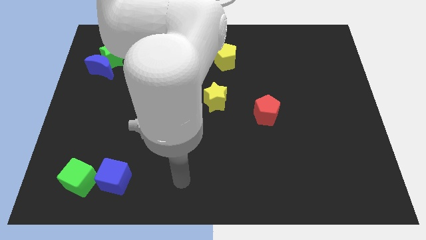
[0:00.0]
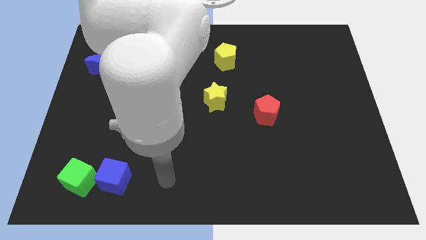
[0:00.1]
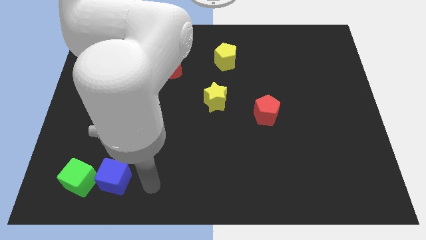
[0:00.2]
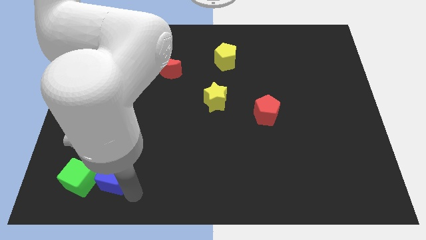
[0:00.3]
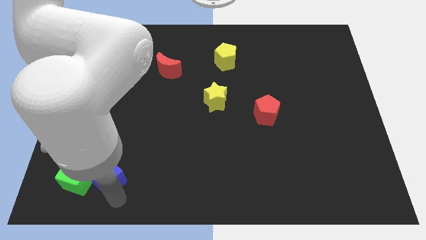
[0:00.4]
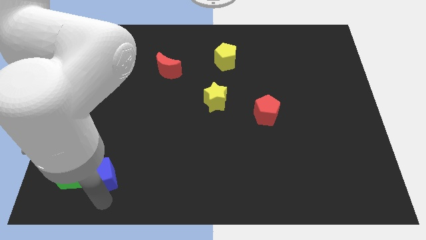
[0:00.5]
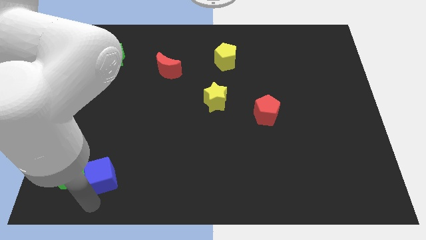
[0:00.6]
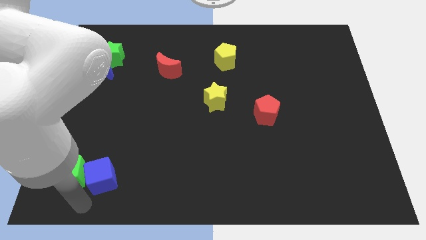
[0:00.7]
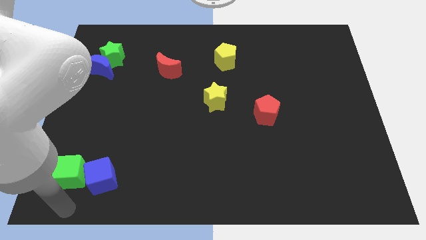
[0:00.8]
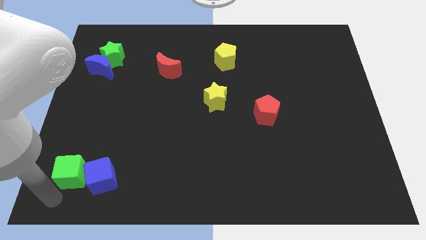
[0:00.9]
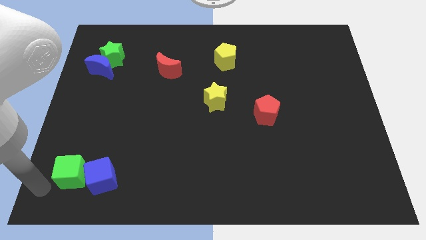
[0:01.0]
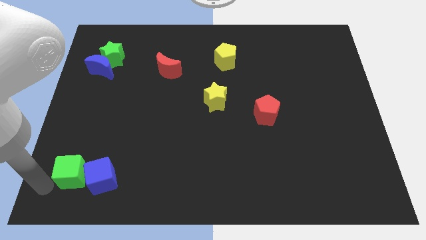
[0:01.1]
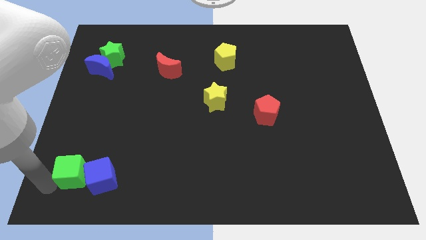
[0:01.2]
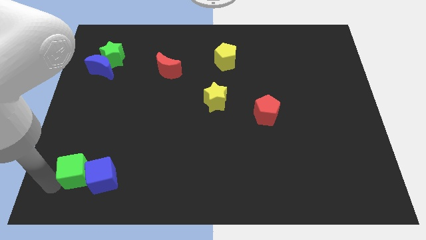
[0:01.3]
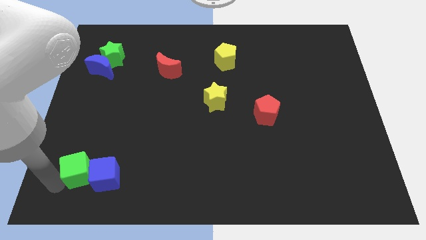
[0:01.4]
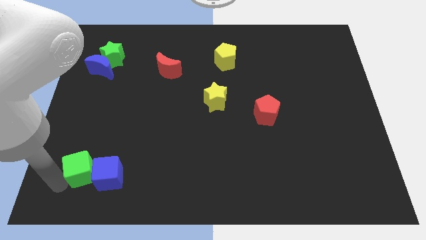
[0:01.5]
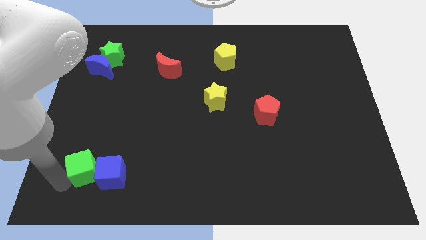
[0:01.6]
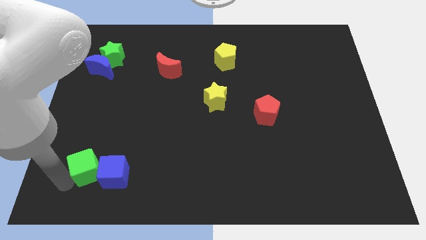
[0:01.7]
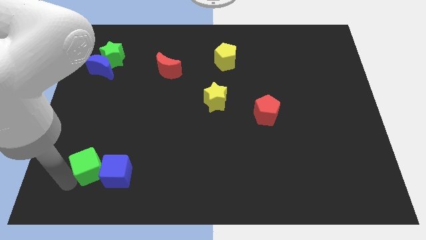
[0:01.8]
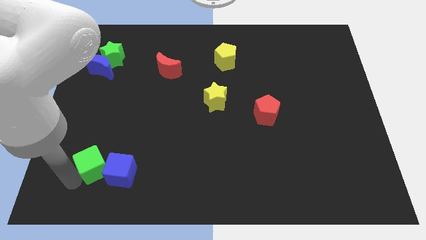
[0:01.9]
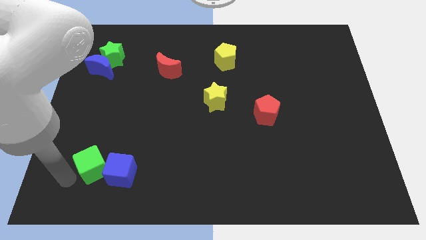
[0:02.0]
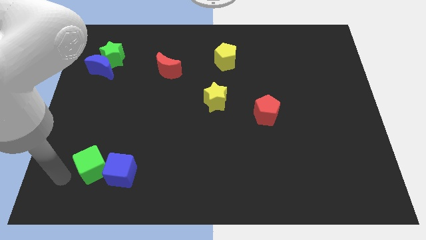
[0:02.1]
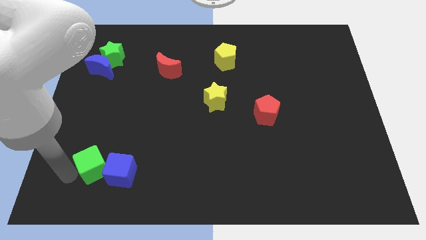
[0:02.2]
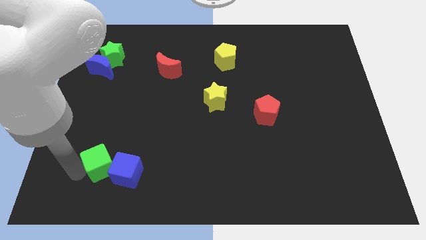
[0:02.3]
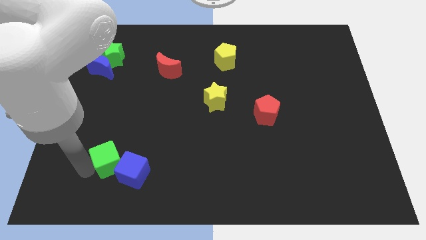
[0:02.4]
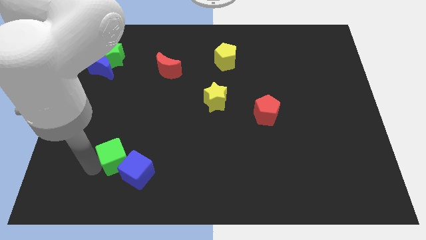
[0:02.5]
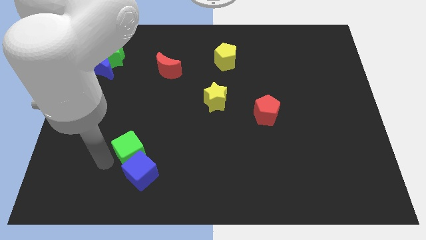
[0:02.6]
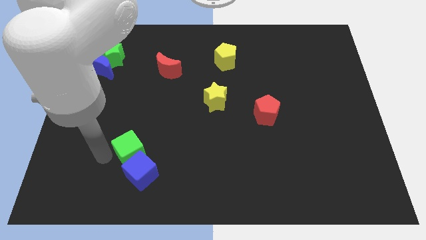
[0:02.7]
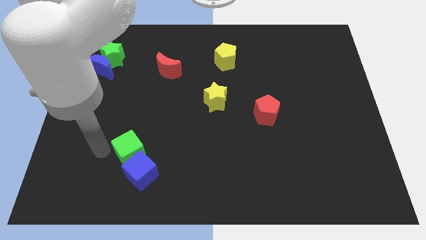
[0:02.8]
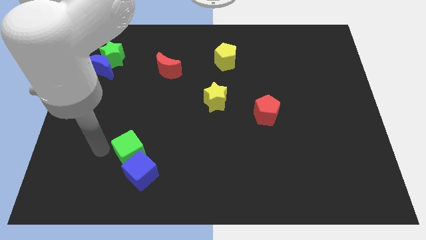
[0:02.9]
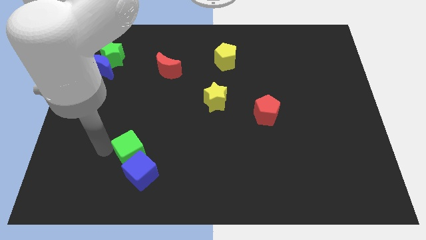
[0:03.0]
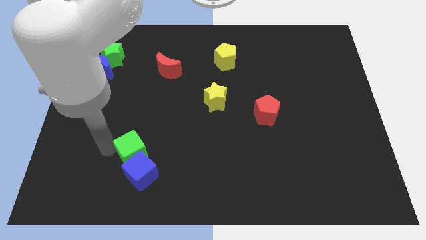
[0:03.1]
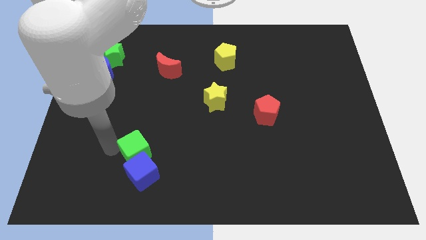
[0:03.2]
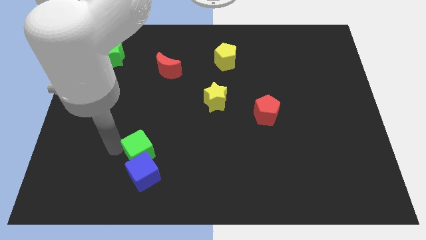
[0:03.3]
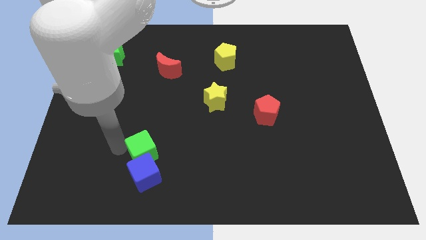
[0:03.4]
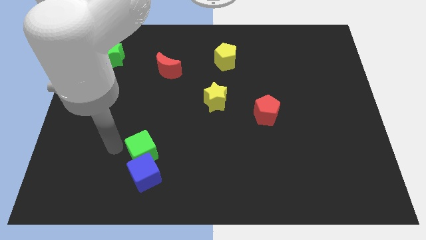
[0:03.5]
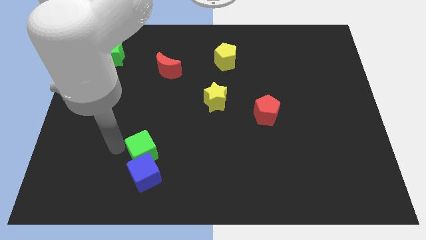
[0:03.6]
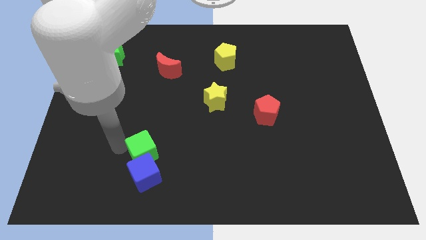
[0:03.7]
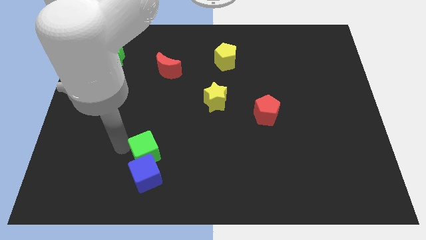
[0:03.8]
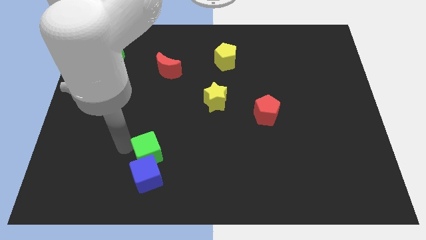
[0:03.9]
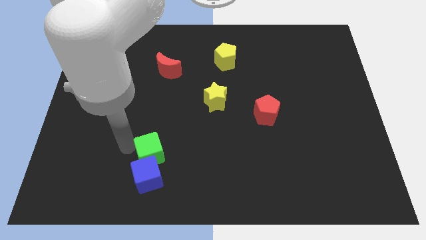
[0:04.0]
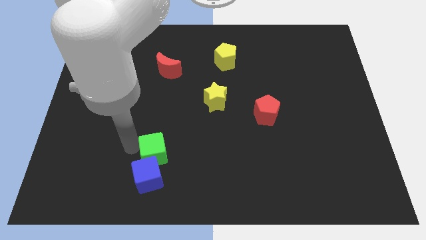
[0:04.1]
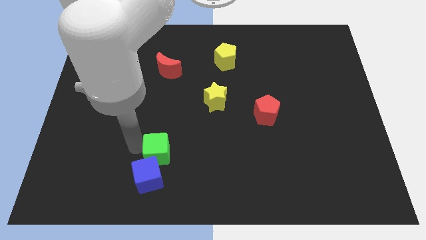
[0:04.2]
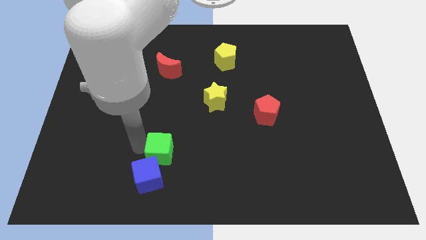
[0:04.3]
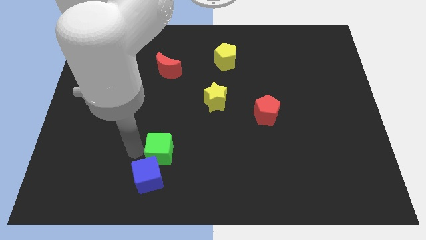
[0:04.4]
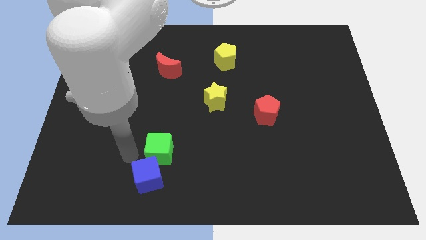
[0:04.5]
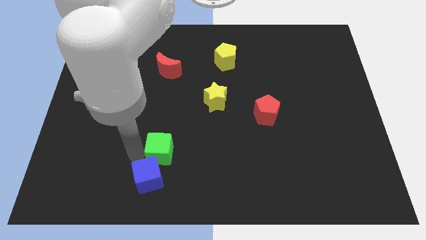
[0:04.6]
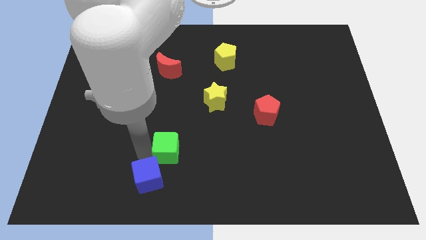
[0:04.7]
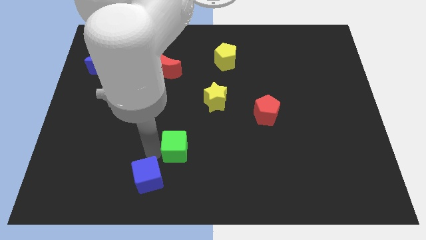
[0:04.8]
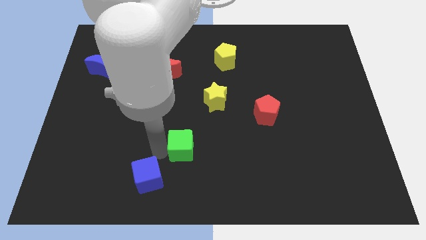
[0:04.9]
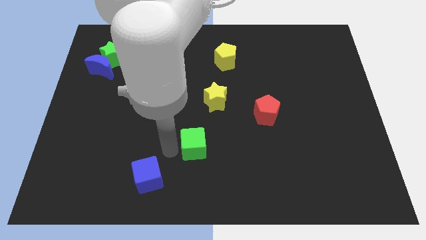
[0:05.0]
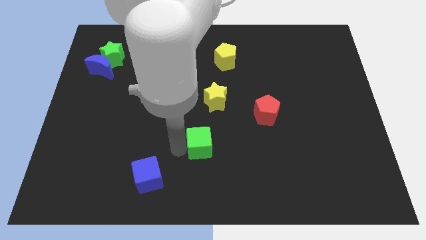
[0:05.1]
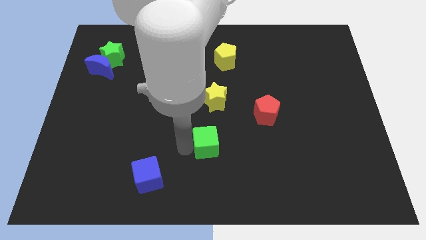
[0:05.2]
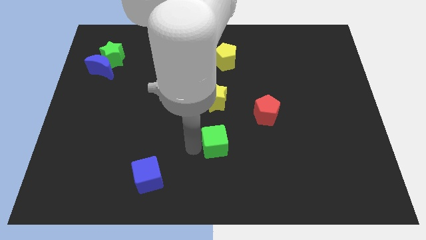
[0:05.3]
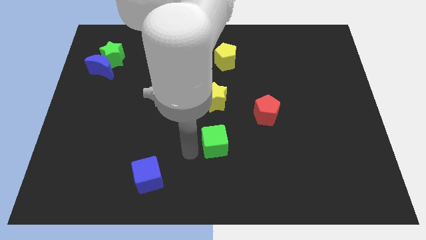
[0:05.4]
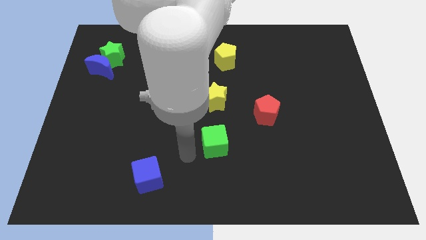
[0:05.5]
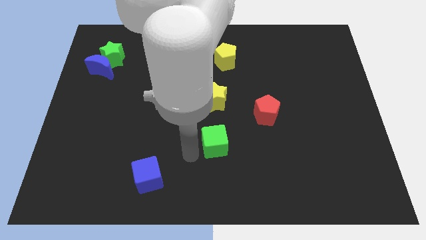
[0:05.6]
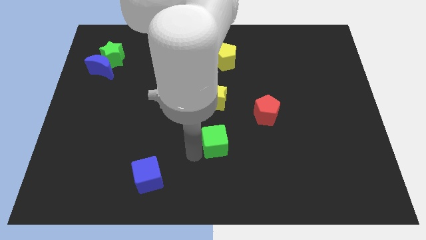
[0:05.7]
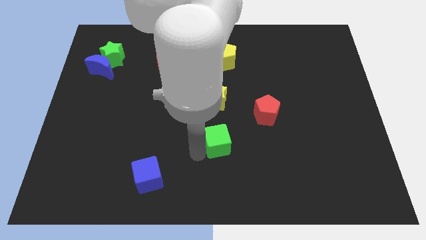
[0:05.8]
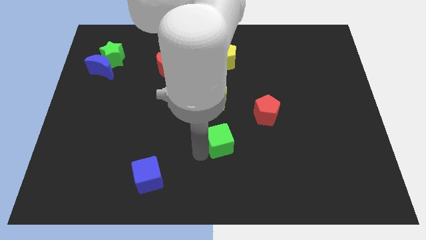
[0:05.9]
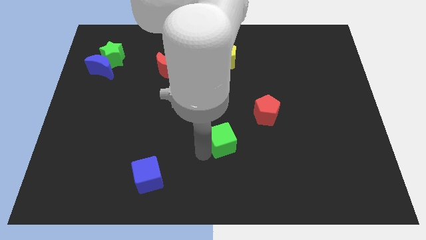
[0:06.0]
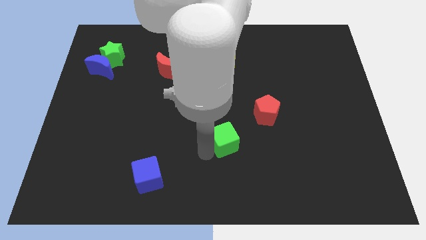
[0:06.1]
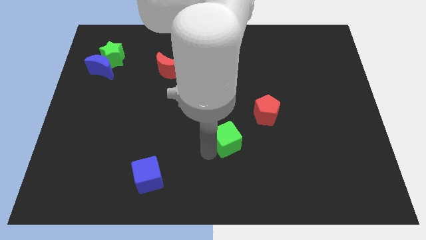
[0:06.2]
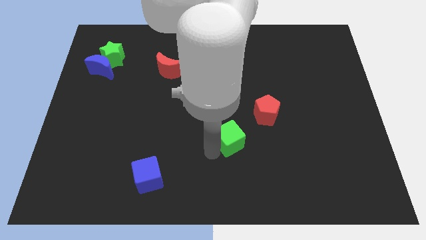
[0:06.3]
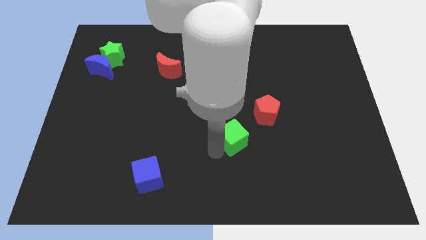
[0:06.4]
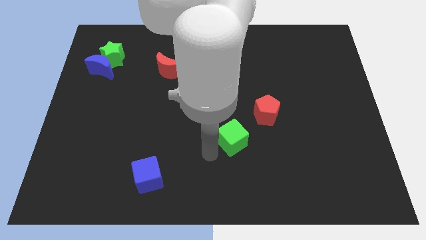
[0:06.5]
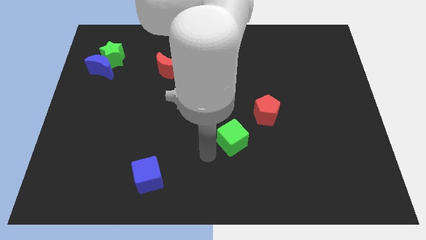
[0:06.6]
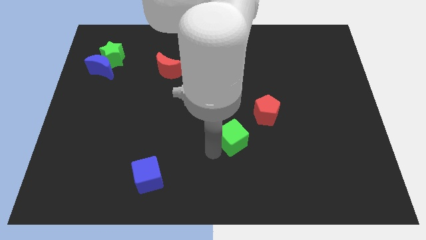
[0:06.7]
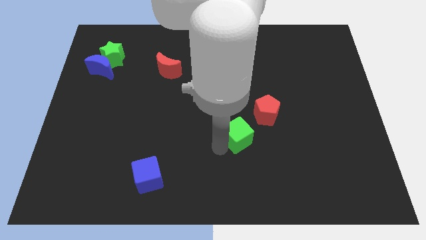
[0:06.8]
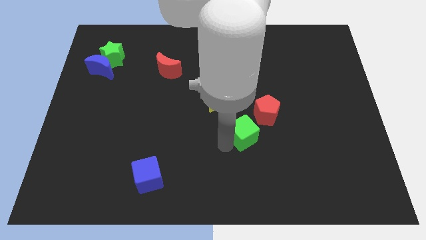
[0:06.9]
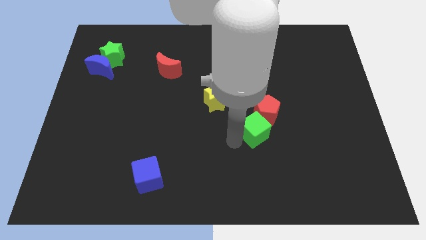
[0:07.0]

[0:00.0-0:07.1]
put the green cube next to the red pentagon
